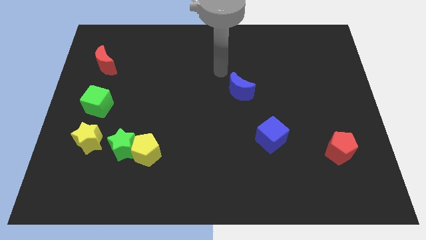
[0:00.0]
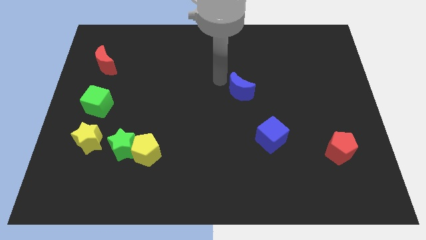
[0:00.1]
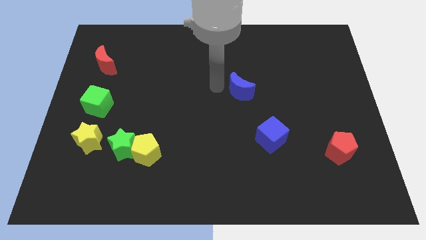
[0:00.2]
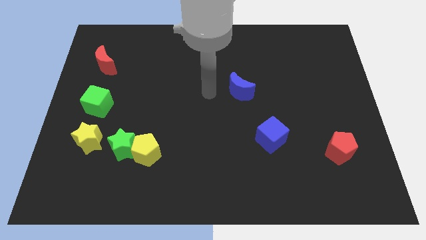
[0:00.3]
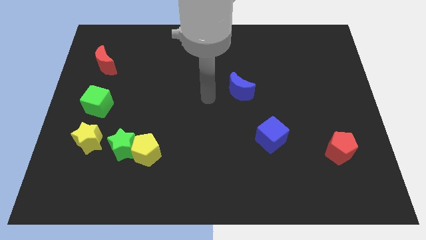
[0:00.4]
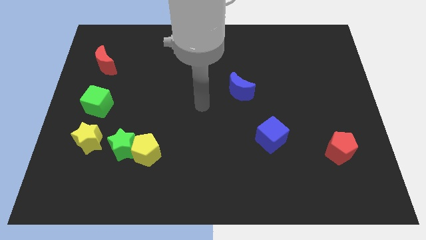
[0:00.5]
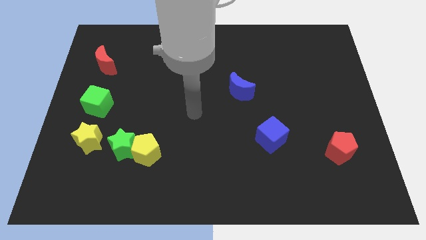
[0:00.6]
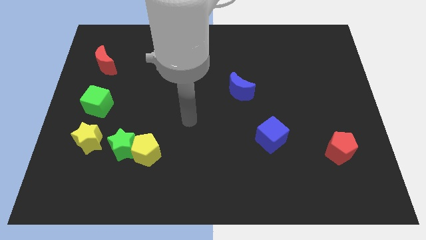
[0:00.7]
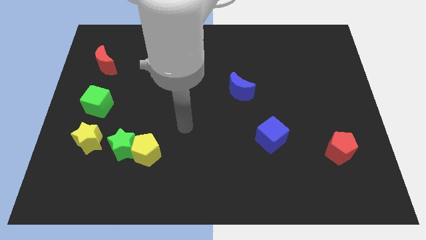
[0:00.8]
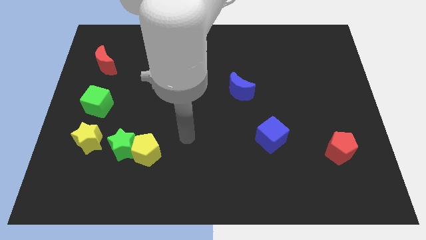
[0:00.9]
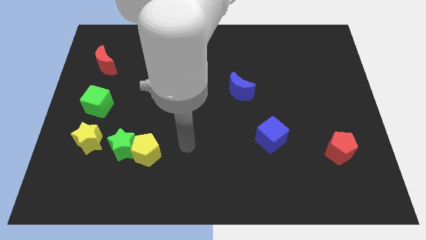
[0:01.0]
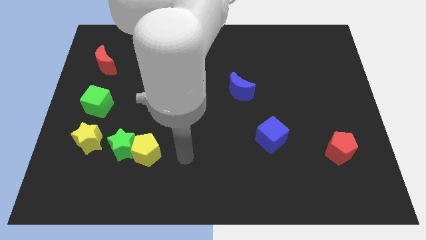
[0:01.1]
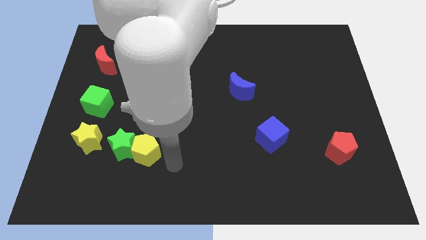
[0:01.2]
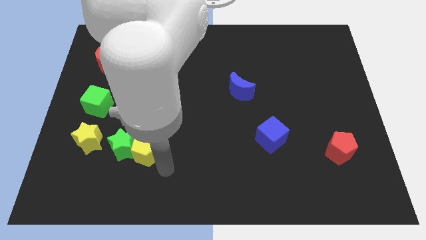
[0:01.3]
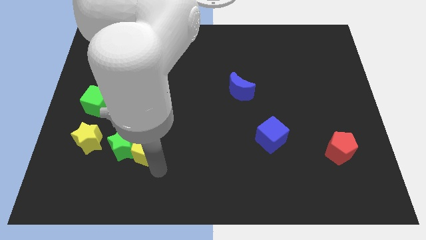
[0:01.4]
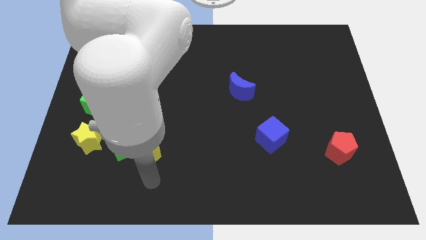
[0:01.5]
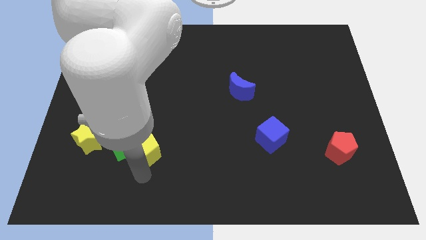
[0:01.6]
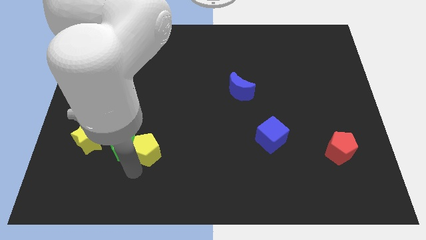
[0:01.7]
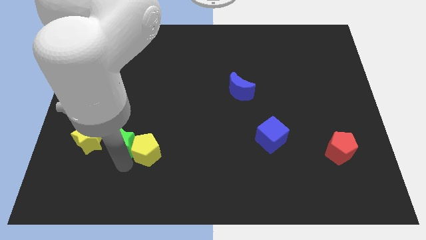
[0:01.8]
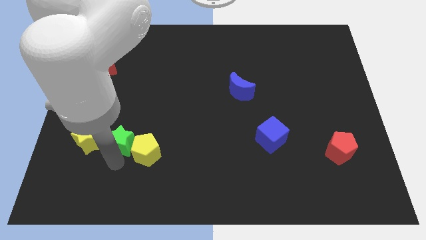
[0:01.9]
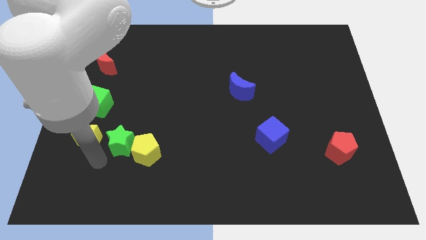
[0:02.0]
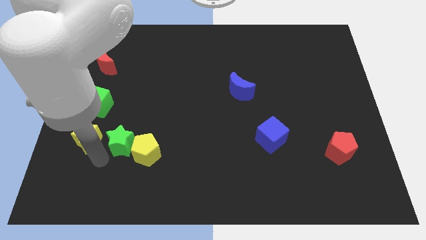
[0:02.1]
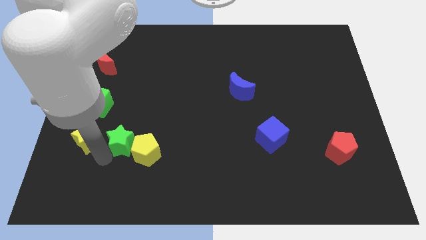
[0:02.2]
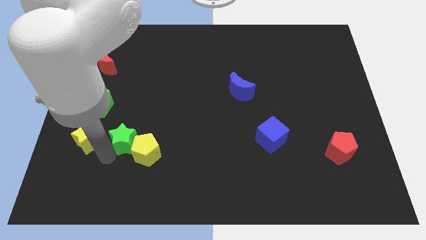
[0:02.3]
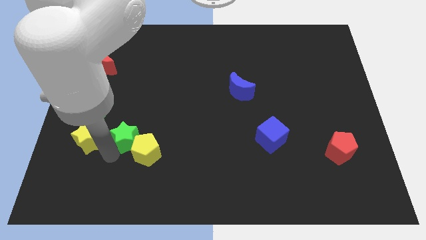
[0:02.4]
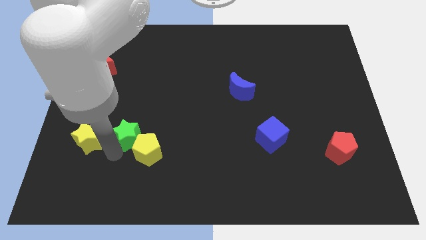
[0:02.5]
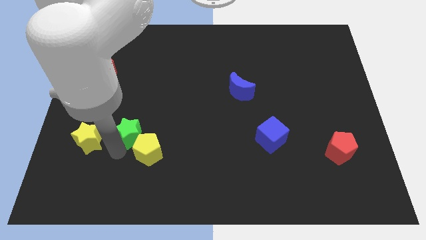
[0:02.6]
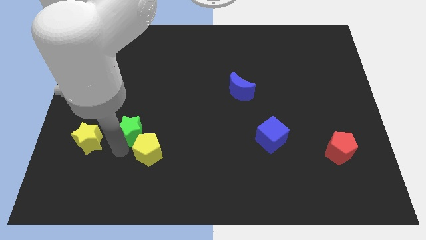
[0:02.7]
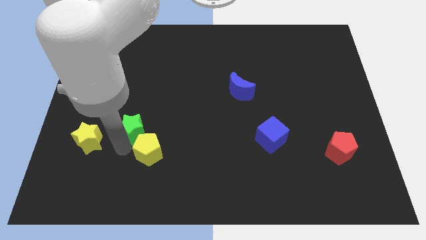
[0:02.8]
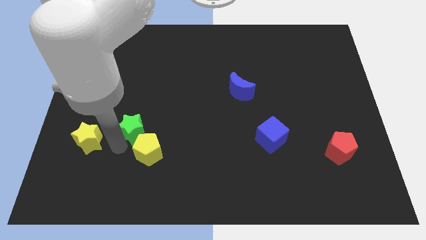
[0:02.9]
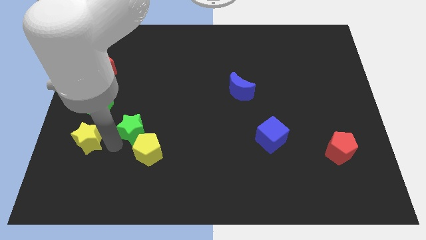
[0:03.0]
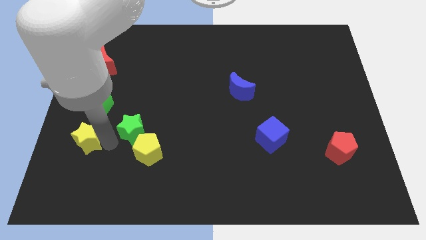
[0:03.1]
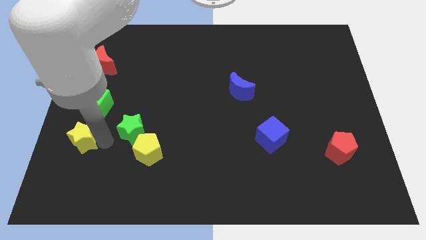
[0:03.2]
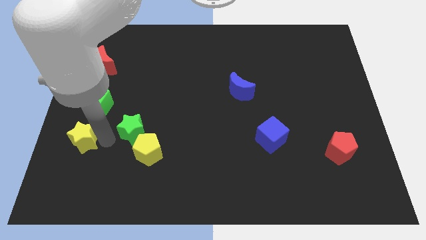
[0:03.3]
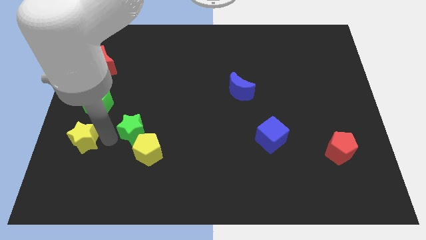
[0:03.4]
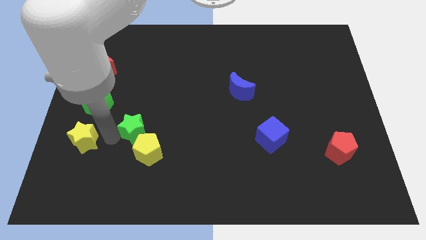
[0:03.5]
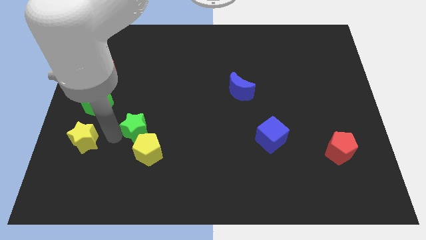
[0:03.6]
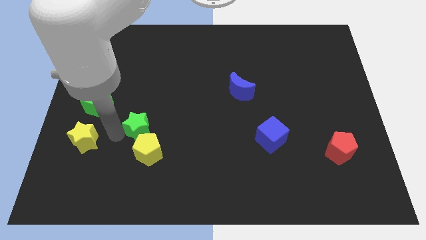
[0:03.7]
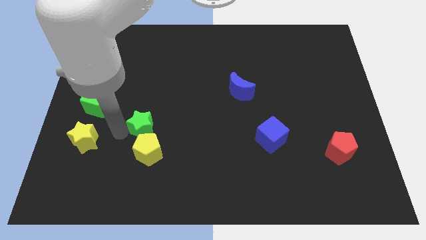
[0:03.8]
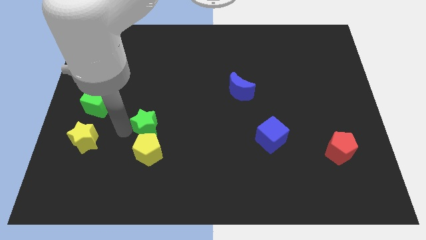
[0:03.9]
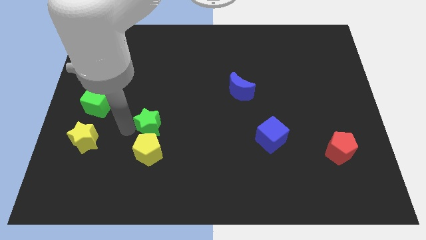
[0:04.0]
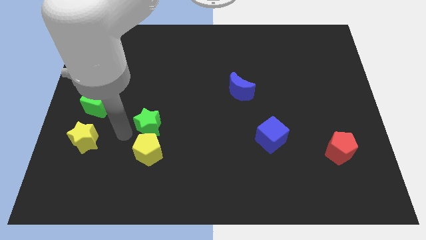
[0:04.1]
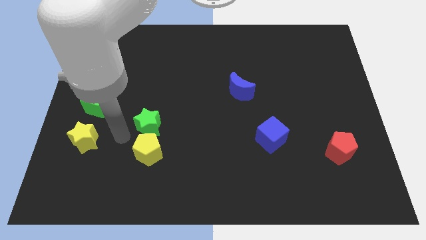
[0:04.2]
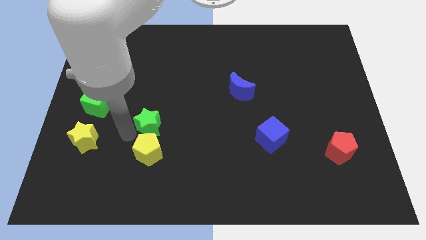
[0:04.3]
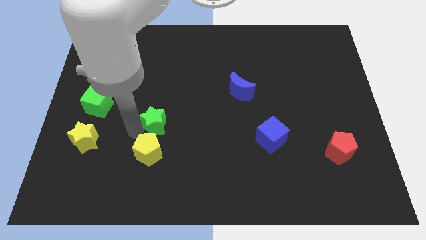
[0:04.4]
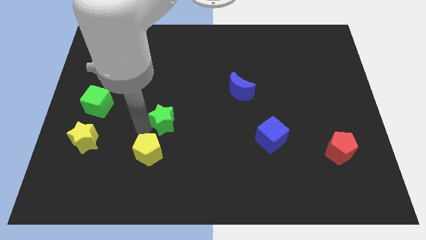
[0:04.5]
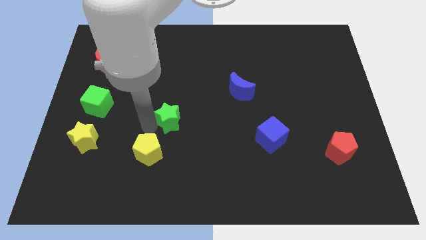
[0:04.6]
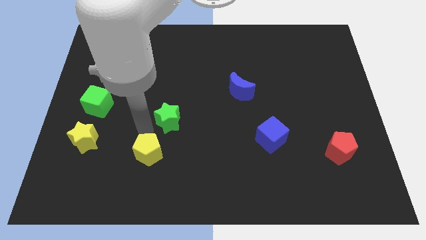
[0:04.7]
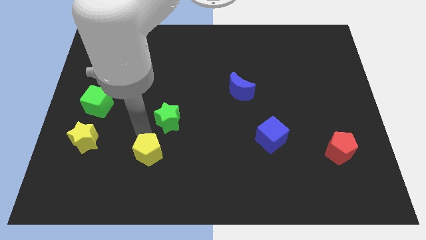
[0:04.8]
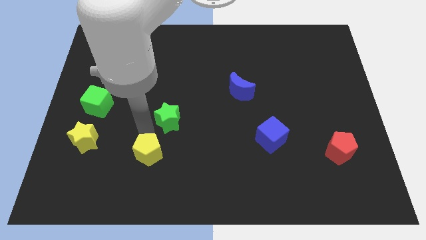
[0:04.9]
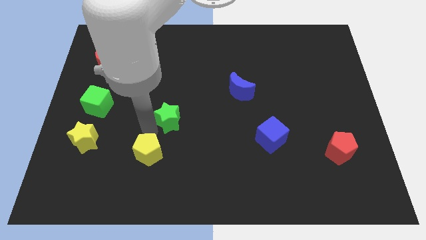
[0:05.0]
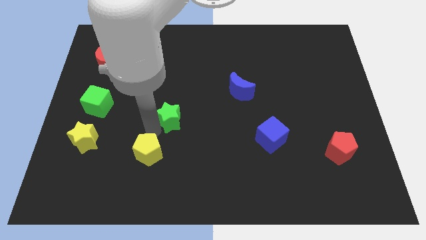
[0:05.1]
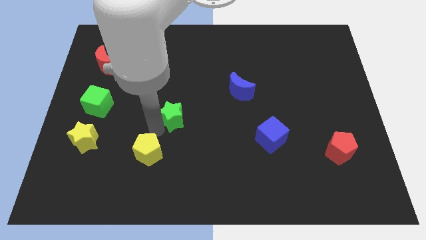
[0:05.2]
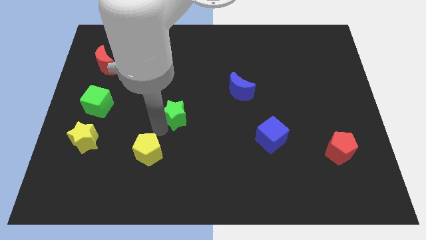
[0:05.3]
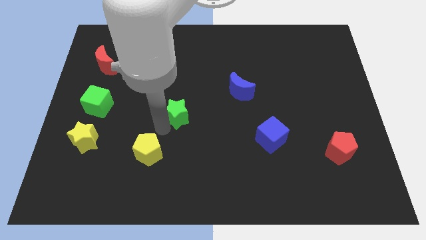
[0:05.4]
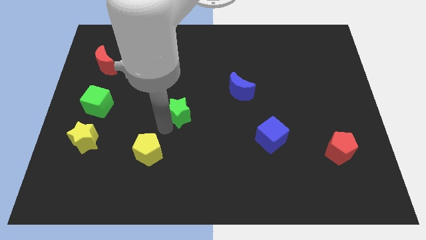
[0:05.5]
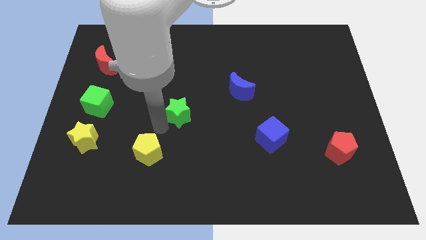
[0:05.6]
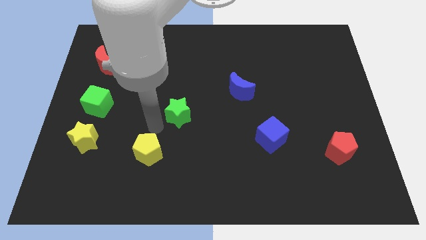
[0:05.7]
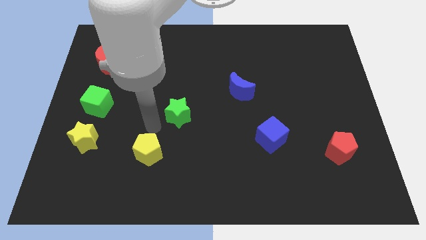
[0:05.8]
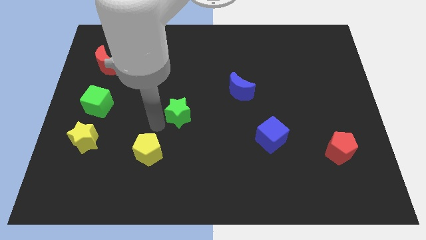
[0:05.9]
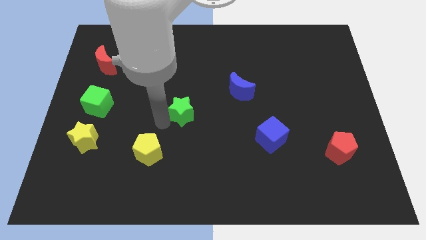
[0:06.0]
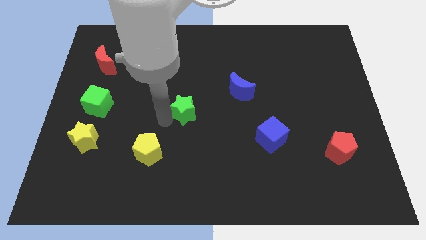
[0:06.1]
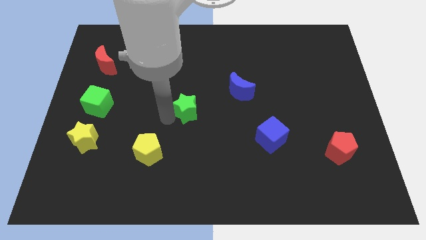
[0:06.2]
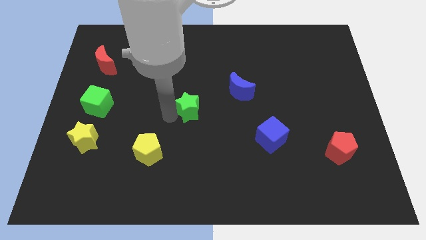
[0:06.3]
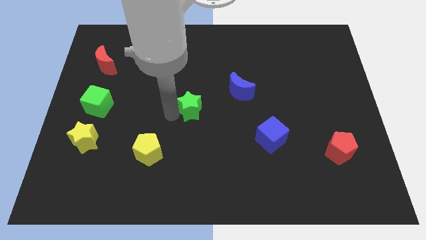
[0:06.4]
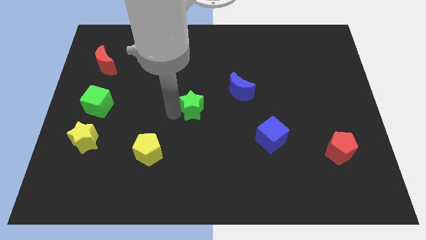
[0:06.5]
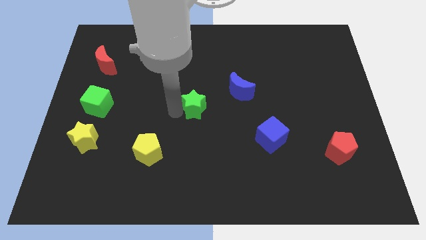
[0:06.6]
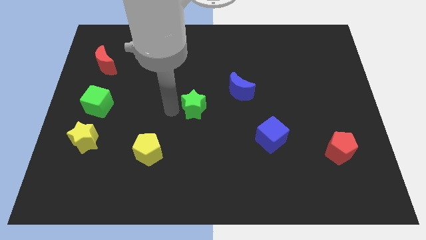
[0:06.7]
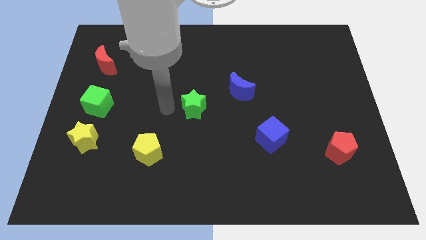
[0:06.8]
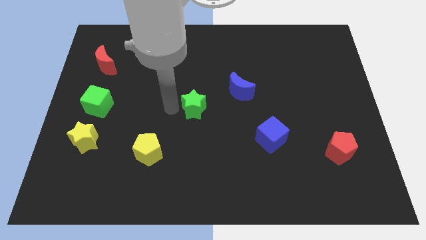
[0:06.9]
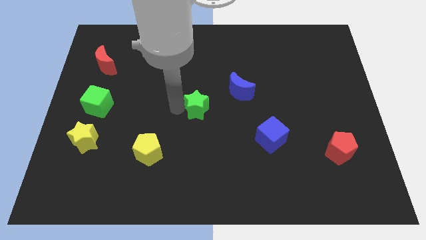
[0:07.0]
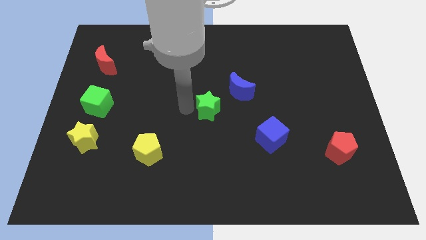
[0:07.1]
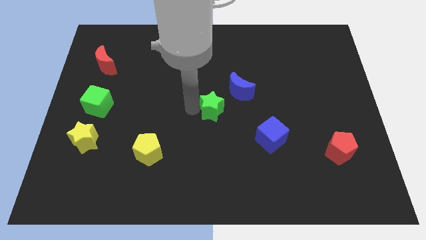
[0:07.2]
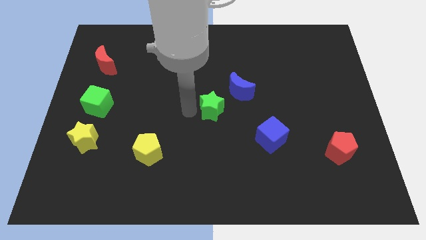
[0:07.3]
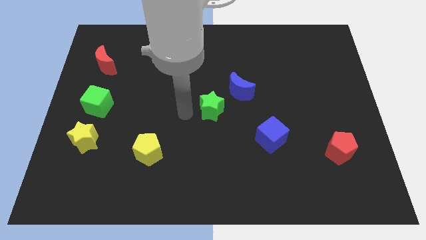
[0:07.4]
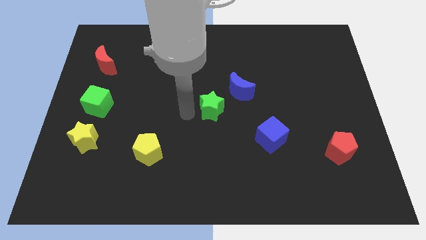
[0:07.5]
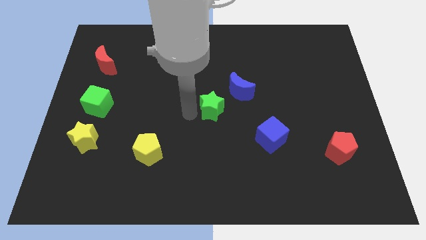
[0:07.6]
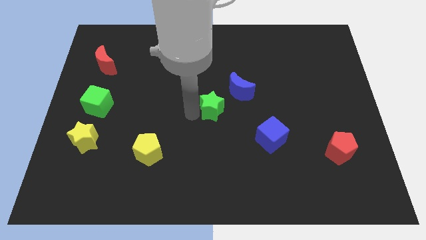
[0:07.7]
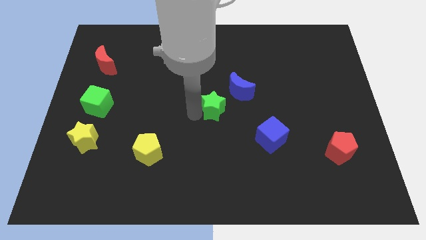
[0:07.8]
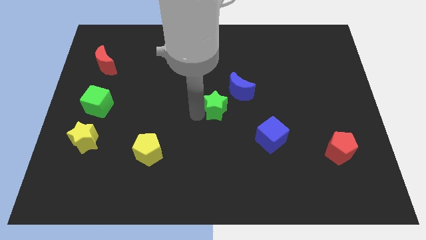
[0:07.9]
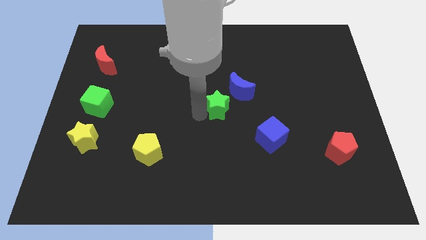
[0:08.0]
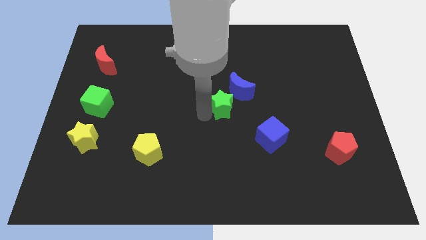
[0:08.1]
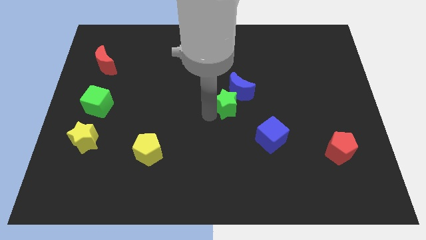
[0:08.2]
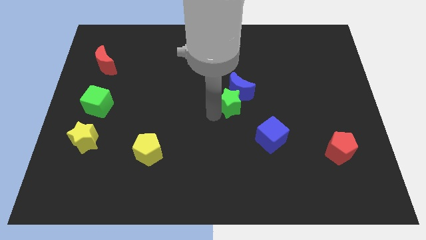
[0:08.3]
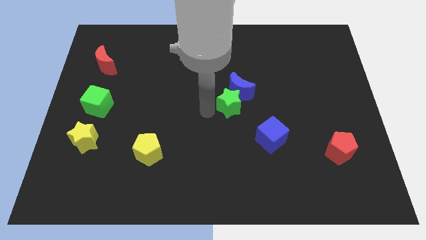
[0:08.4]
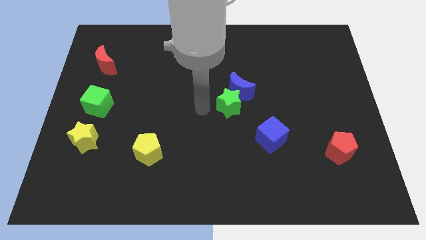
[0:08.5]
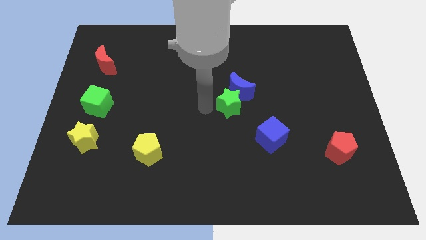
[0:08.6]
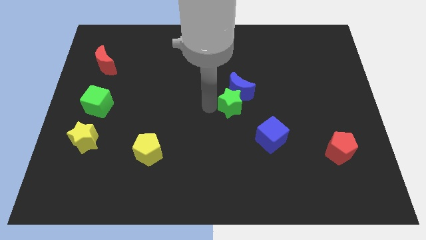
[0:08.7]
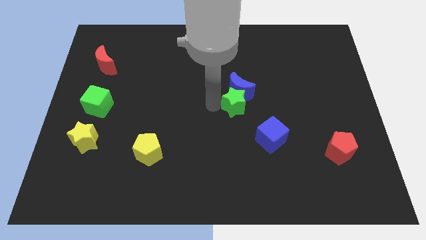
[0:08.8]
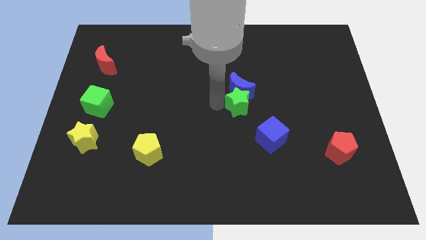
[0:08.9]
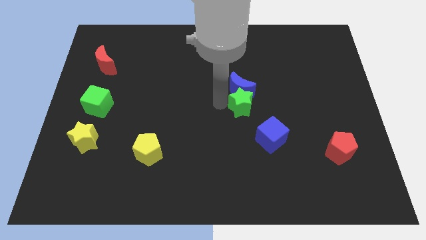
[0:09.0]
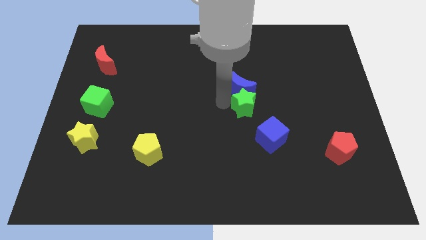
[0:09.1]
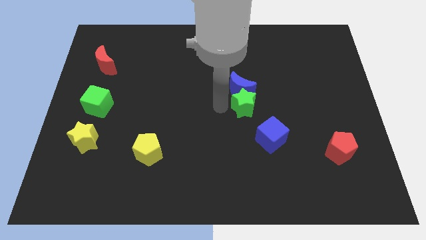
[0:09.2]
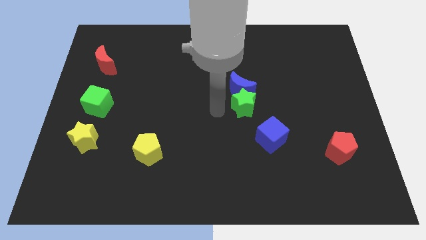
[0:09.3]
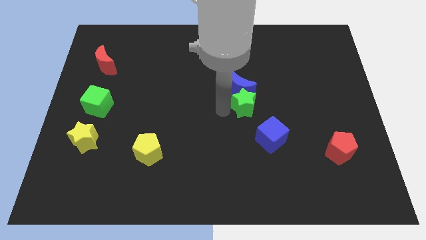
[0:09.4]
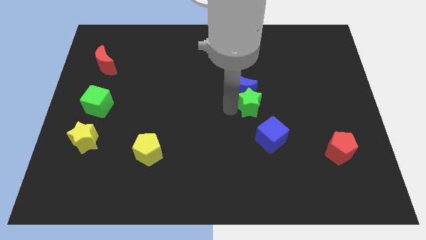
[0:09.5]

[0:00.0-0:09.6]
move the green star to the top of the blue cube
